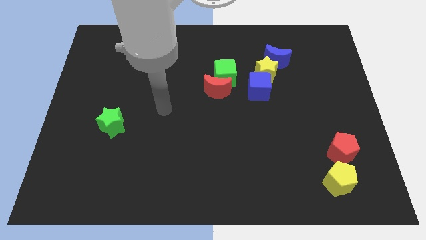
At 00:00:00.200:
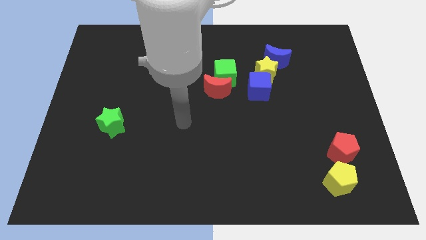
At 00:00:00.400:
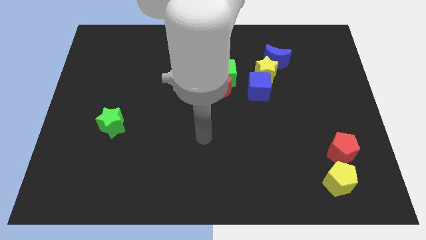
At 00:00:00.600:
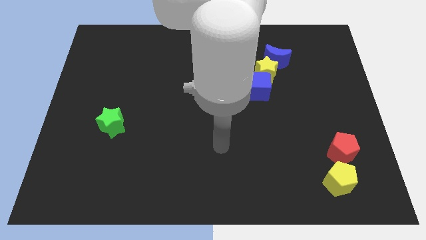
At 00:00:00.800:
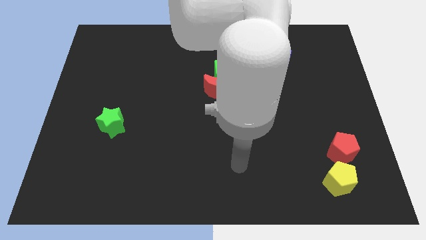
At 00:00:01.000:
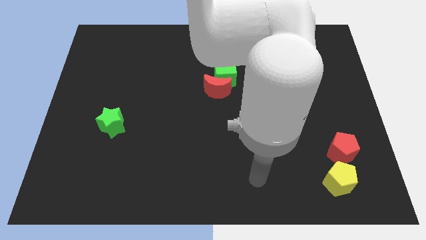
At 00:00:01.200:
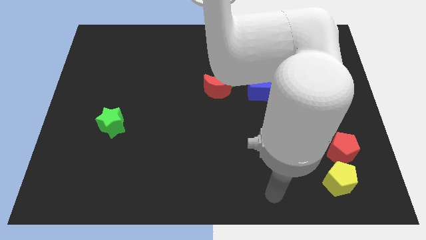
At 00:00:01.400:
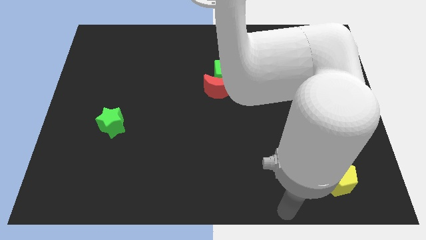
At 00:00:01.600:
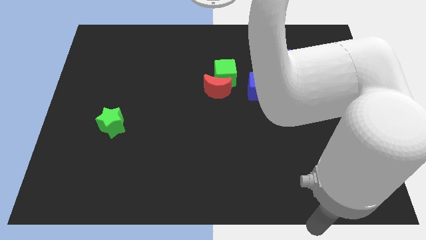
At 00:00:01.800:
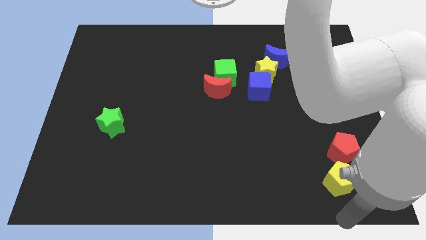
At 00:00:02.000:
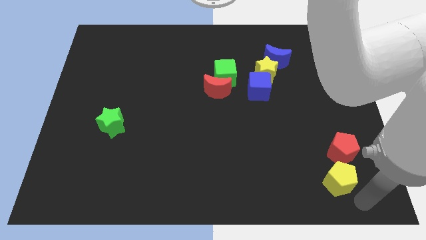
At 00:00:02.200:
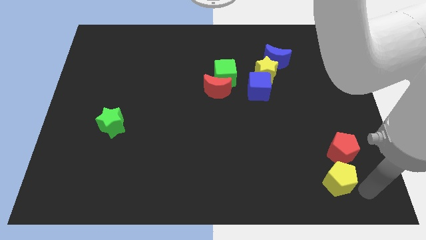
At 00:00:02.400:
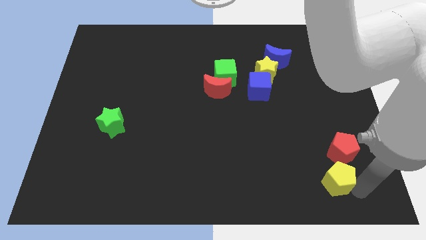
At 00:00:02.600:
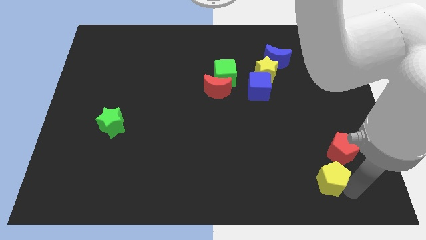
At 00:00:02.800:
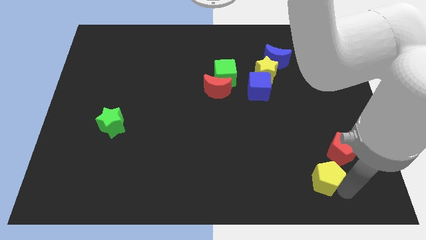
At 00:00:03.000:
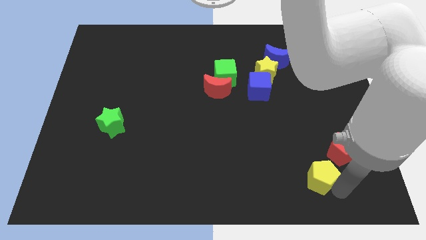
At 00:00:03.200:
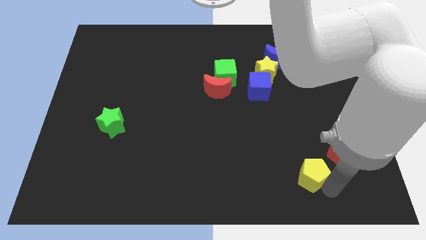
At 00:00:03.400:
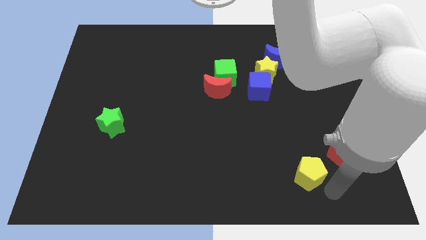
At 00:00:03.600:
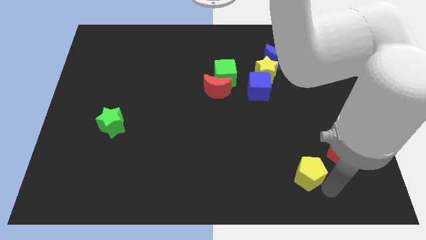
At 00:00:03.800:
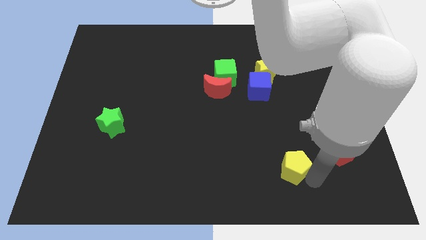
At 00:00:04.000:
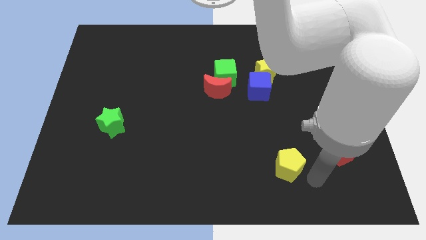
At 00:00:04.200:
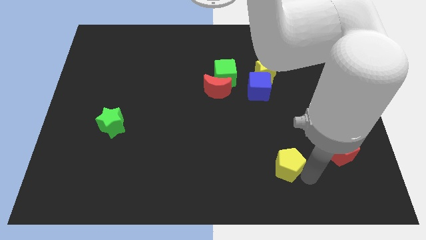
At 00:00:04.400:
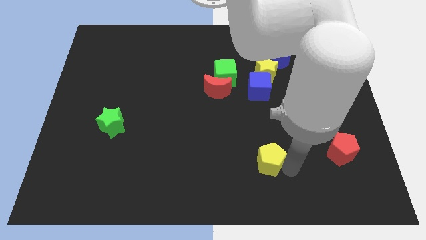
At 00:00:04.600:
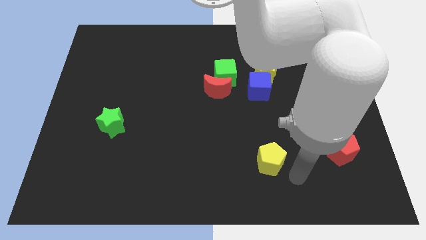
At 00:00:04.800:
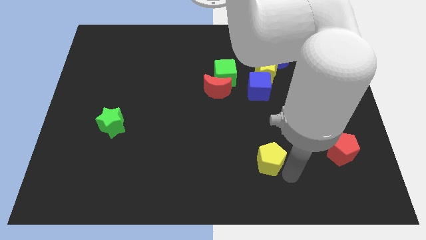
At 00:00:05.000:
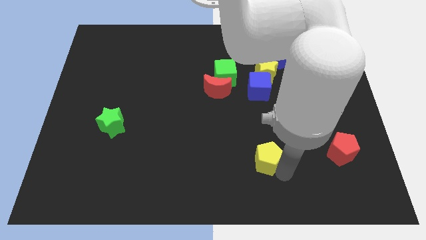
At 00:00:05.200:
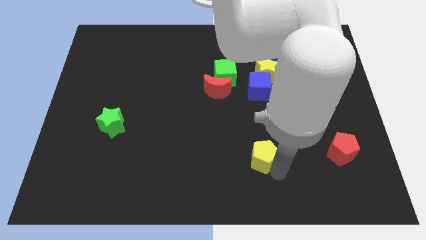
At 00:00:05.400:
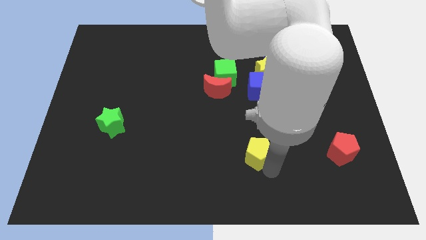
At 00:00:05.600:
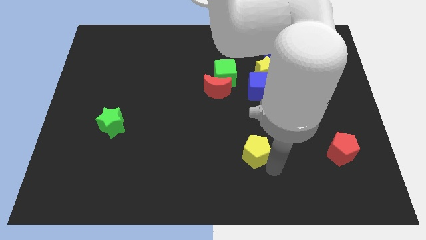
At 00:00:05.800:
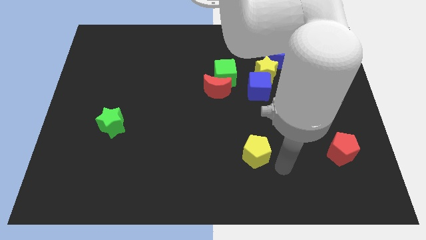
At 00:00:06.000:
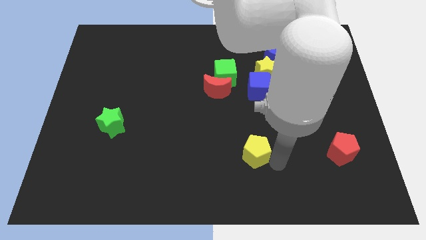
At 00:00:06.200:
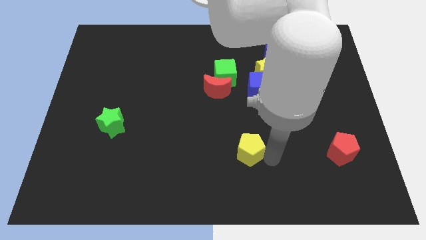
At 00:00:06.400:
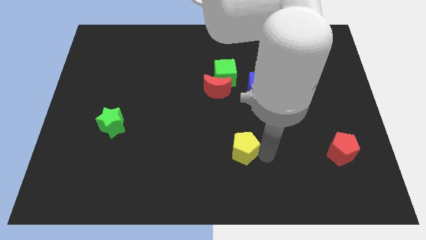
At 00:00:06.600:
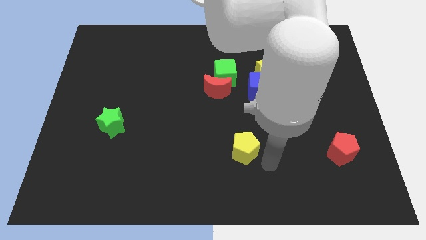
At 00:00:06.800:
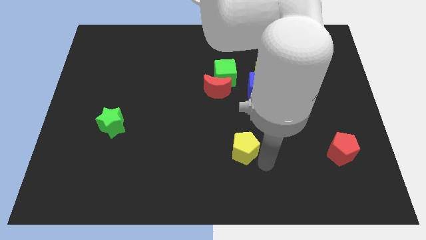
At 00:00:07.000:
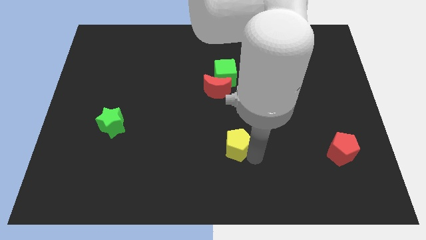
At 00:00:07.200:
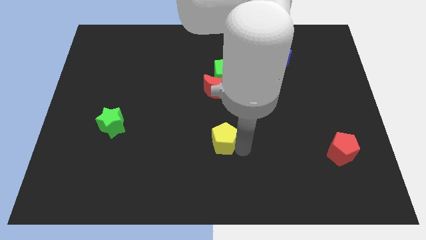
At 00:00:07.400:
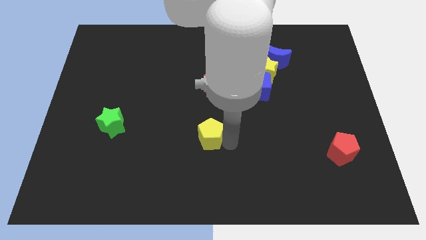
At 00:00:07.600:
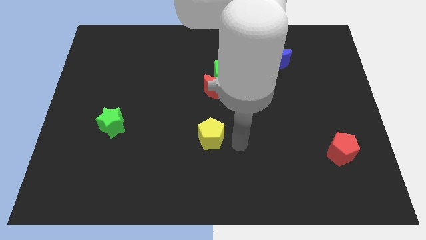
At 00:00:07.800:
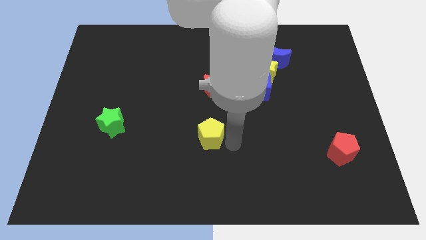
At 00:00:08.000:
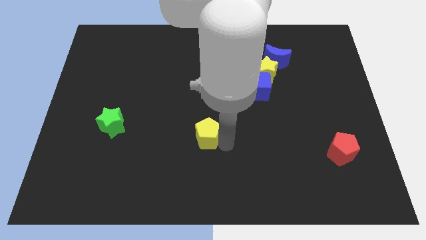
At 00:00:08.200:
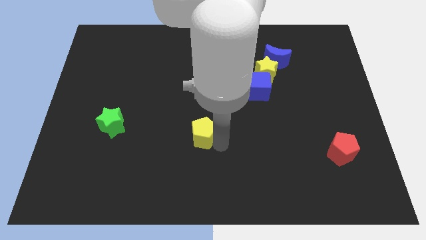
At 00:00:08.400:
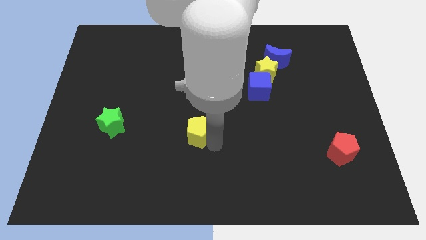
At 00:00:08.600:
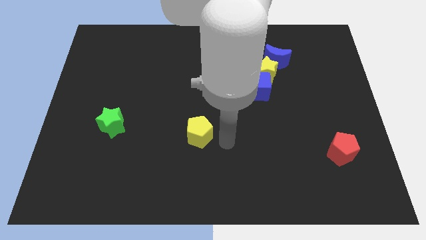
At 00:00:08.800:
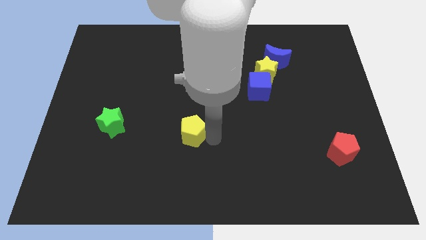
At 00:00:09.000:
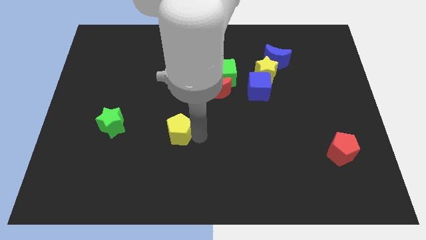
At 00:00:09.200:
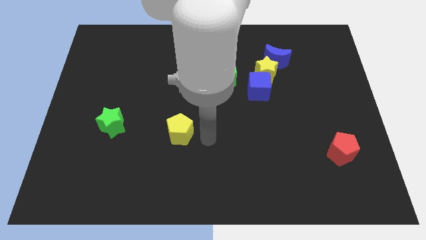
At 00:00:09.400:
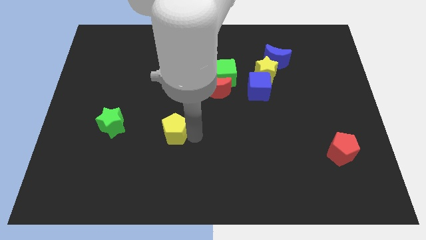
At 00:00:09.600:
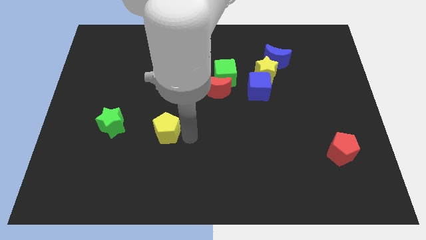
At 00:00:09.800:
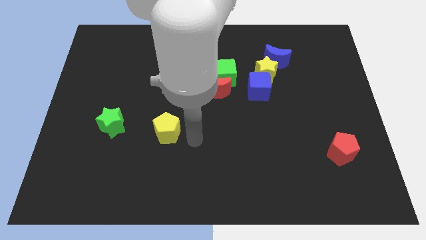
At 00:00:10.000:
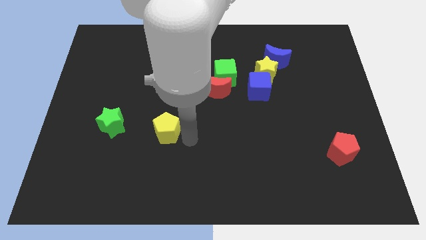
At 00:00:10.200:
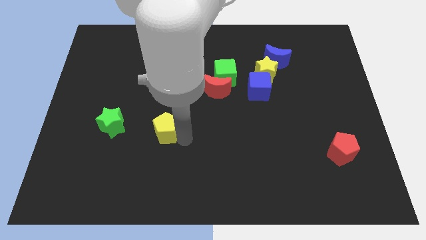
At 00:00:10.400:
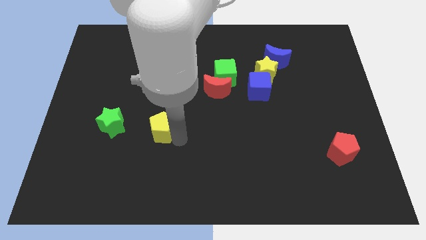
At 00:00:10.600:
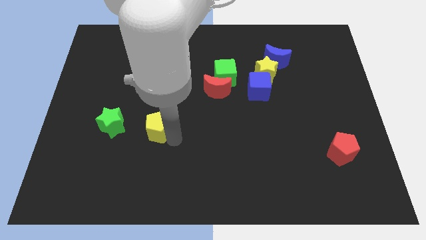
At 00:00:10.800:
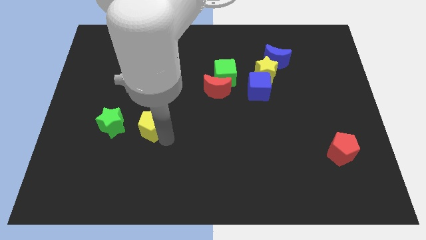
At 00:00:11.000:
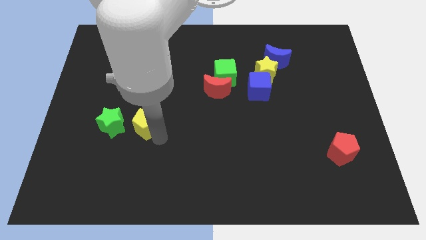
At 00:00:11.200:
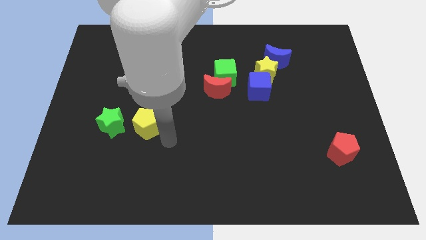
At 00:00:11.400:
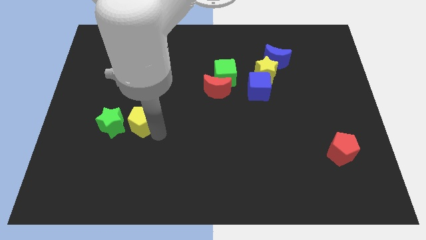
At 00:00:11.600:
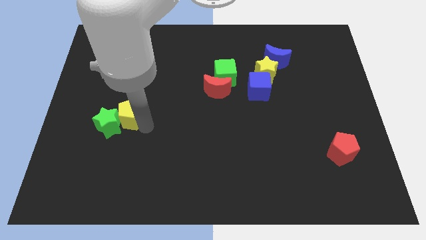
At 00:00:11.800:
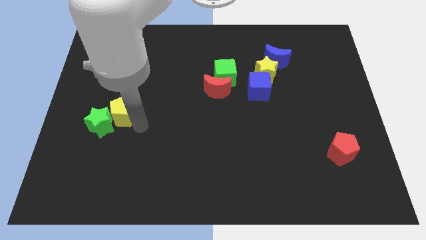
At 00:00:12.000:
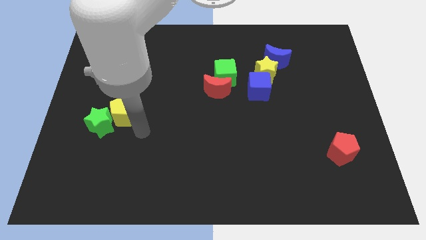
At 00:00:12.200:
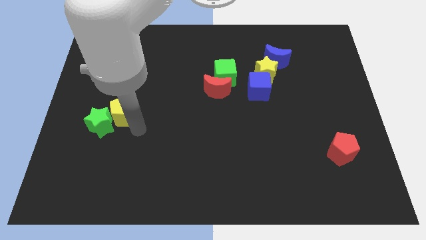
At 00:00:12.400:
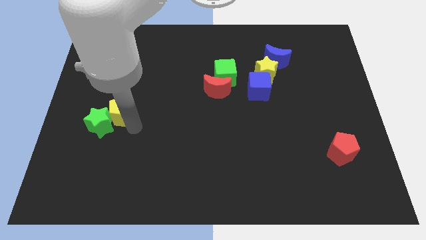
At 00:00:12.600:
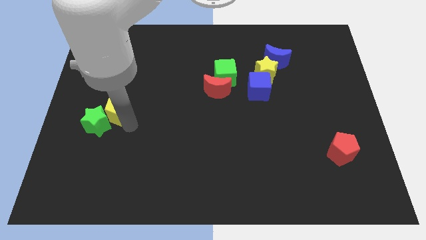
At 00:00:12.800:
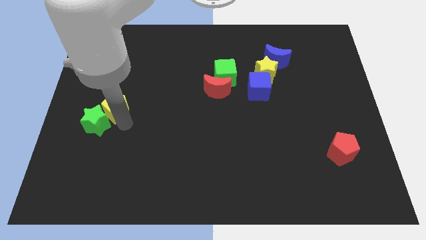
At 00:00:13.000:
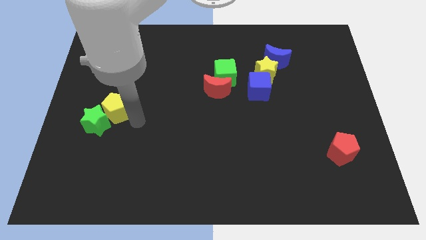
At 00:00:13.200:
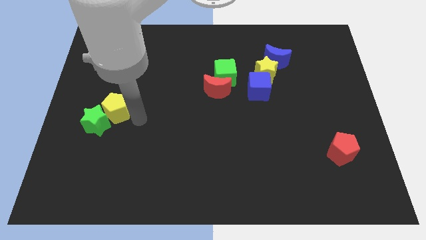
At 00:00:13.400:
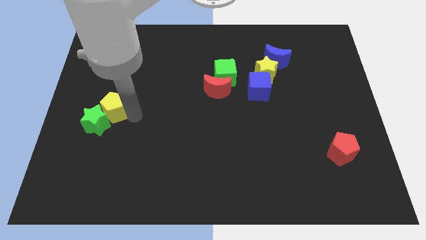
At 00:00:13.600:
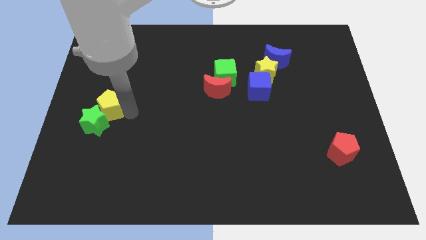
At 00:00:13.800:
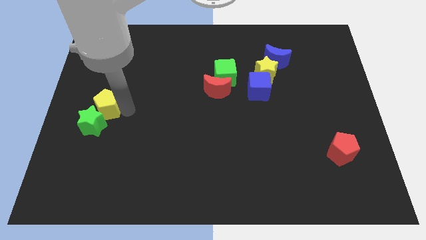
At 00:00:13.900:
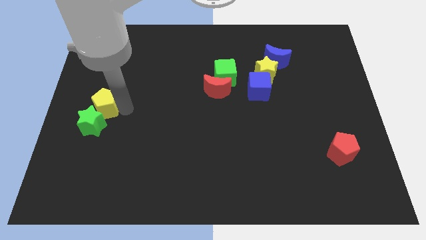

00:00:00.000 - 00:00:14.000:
push the yellow pentagon to the left side of the board
